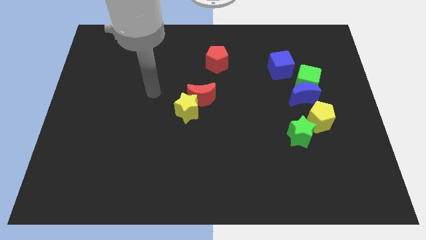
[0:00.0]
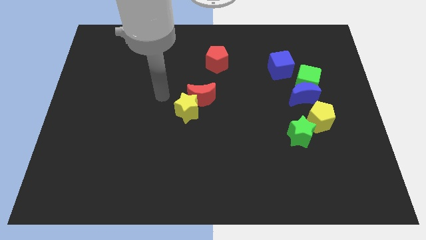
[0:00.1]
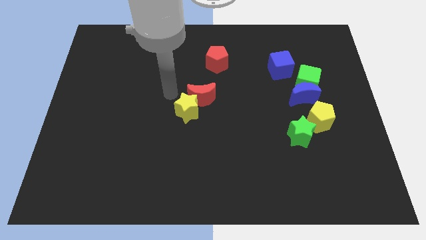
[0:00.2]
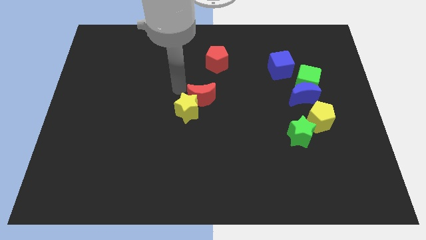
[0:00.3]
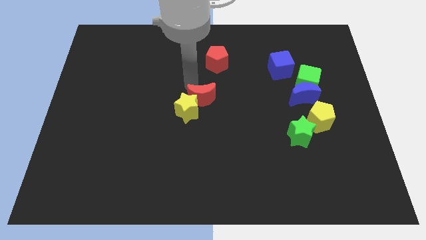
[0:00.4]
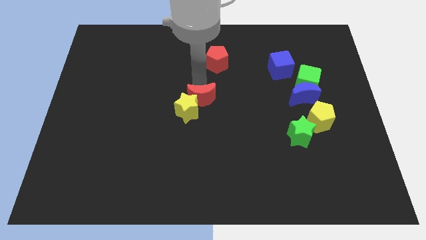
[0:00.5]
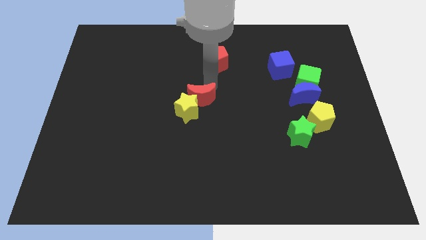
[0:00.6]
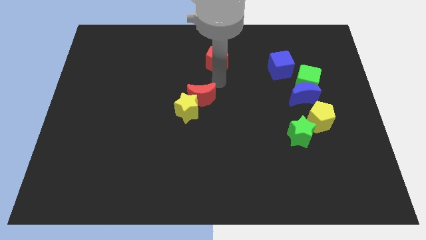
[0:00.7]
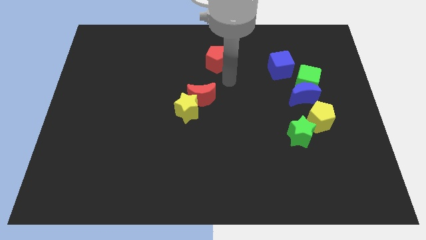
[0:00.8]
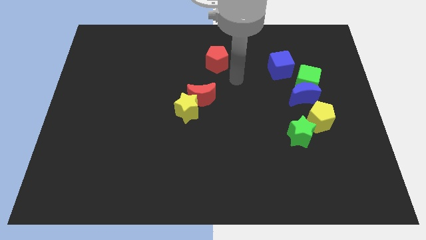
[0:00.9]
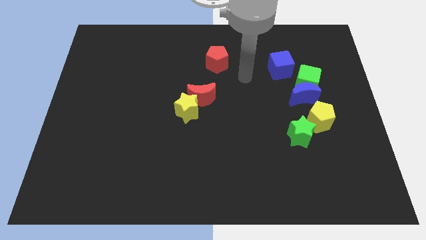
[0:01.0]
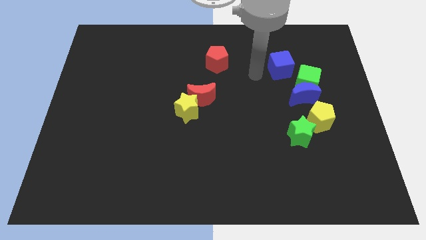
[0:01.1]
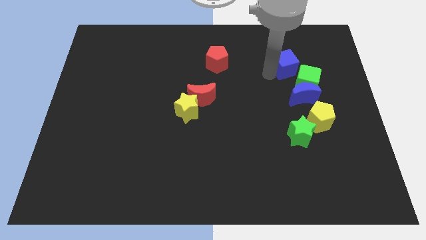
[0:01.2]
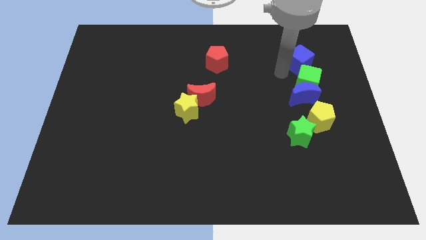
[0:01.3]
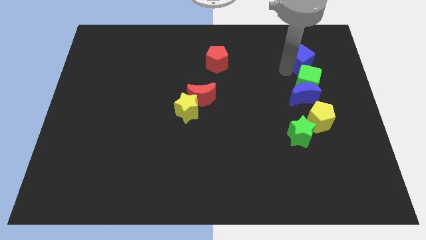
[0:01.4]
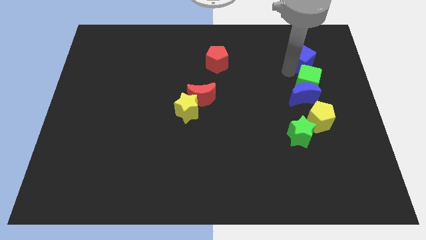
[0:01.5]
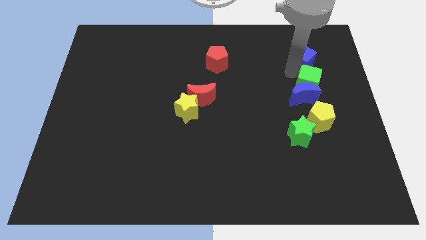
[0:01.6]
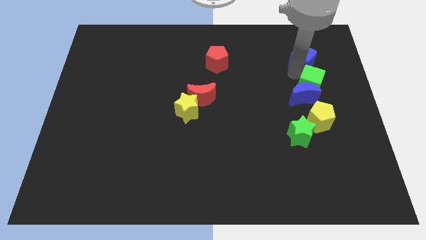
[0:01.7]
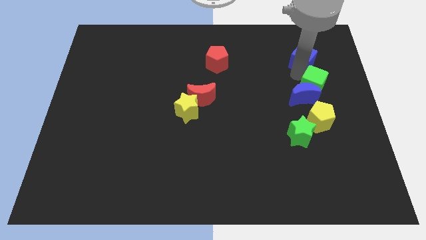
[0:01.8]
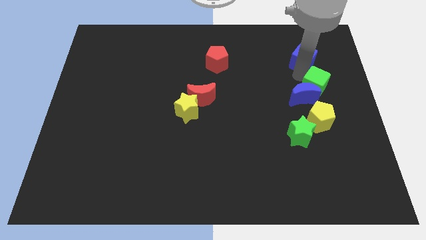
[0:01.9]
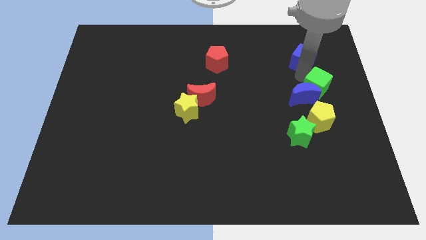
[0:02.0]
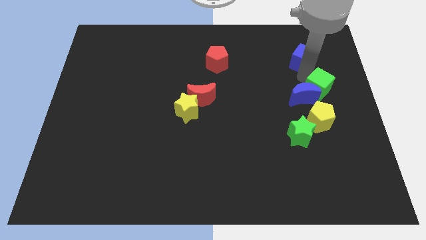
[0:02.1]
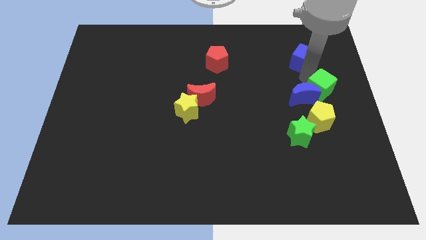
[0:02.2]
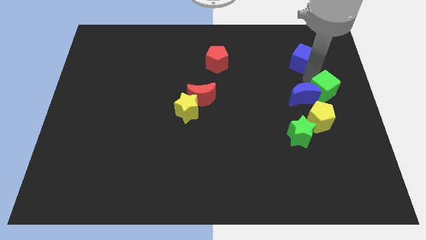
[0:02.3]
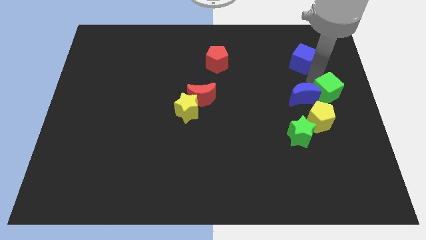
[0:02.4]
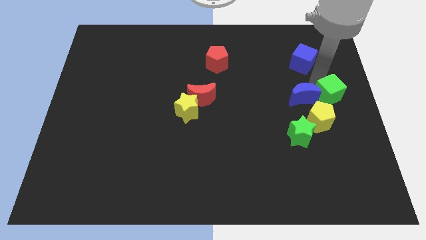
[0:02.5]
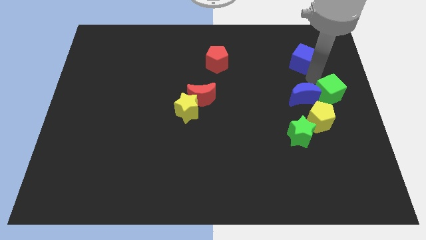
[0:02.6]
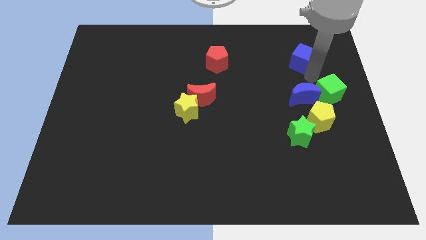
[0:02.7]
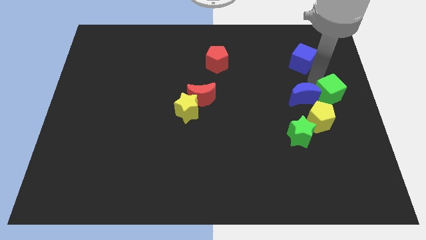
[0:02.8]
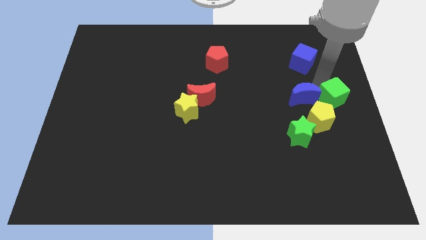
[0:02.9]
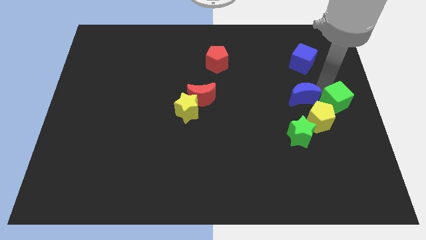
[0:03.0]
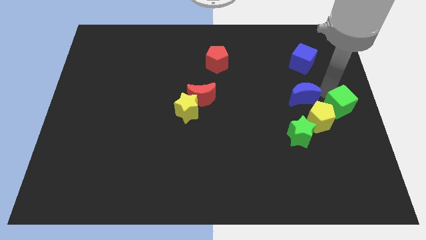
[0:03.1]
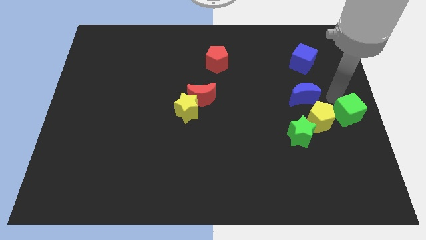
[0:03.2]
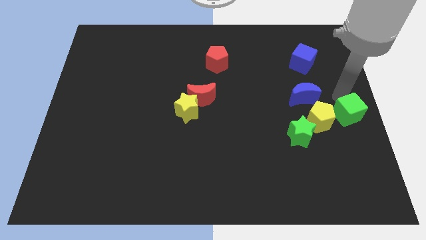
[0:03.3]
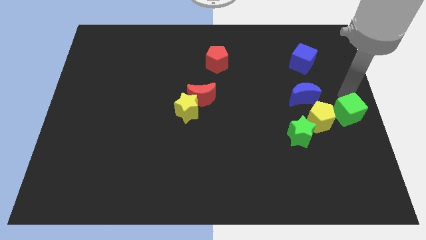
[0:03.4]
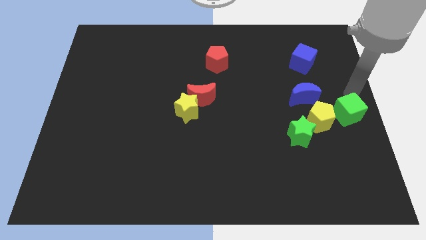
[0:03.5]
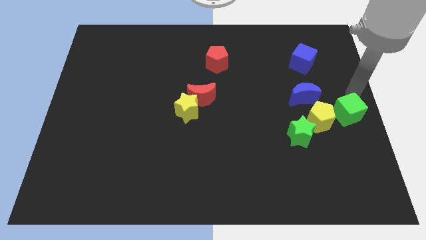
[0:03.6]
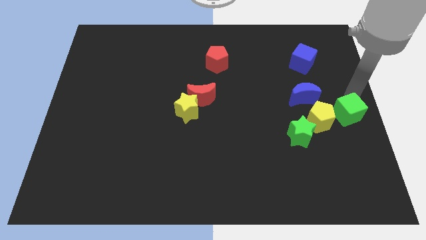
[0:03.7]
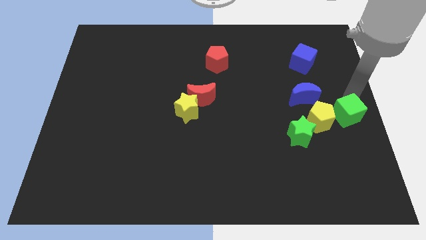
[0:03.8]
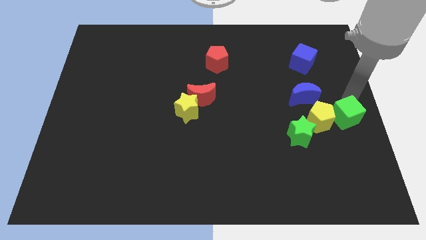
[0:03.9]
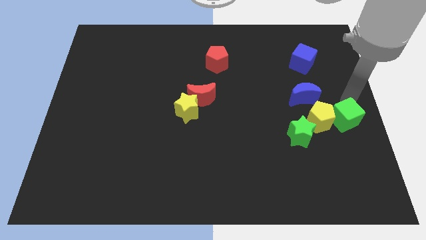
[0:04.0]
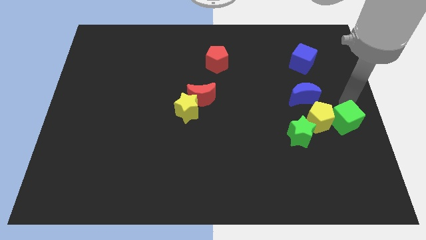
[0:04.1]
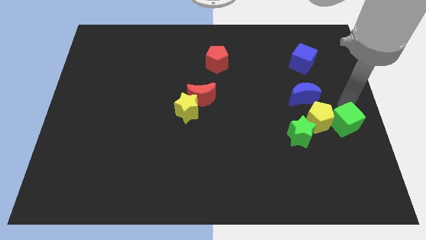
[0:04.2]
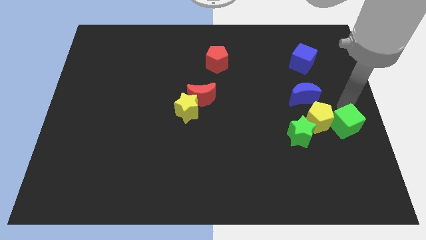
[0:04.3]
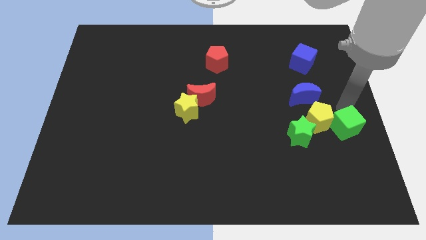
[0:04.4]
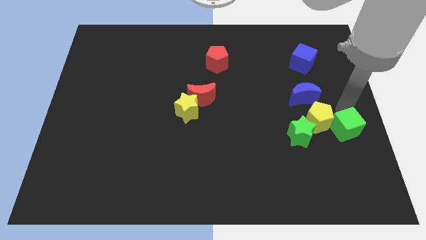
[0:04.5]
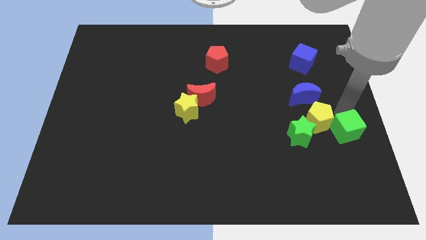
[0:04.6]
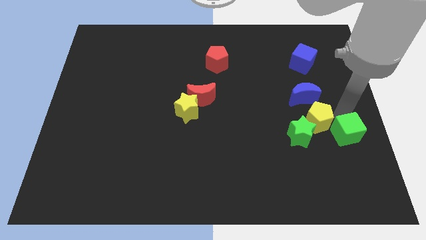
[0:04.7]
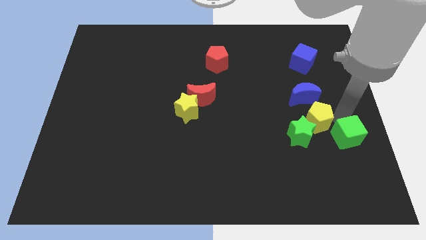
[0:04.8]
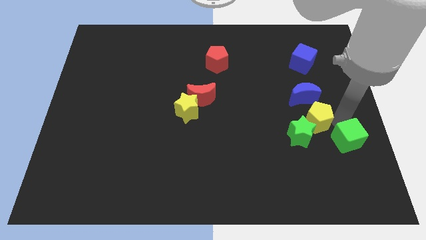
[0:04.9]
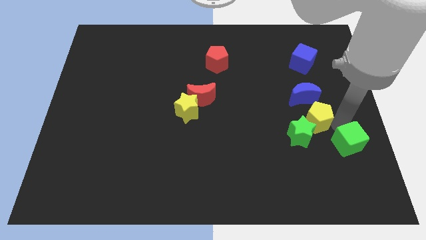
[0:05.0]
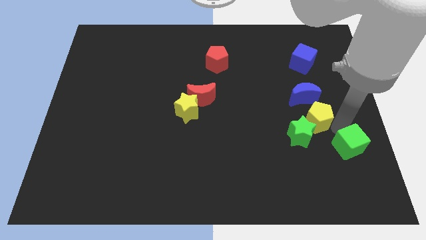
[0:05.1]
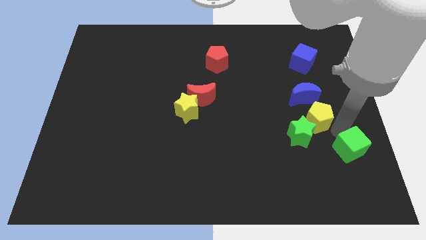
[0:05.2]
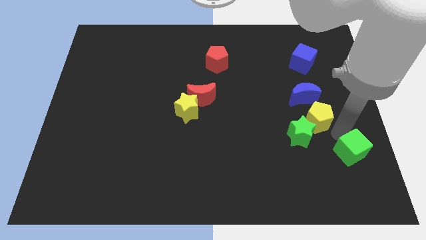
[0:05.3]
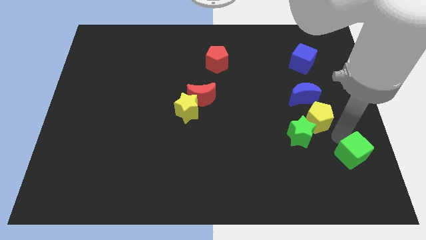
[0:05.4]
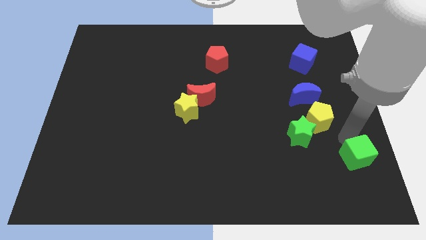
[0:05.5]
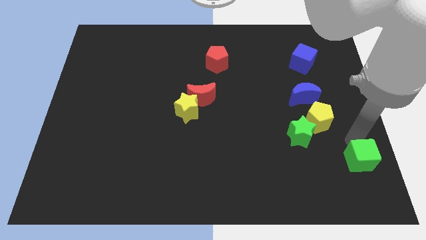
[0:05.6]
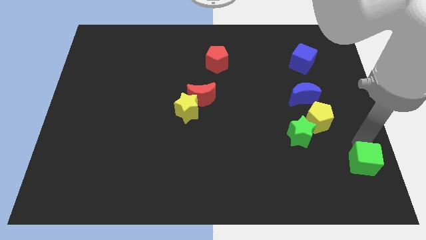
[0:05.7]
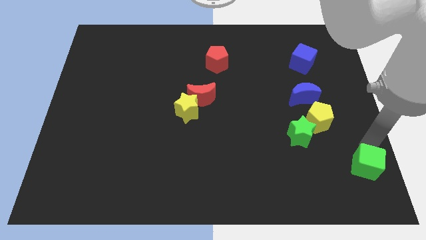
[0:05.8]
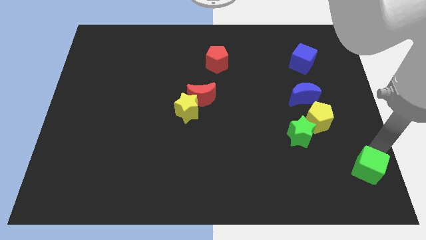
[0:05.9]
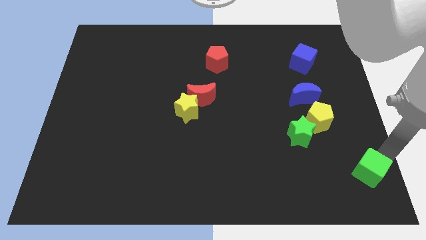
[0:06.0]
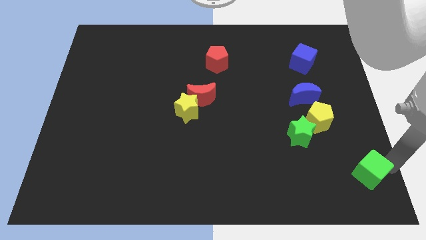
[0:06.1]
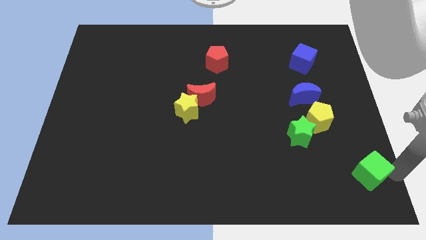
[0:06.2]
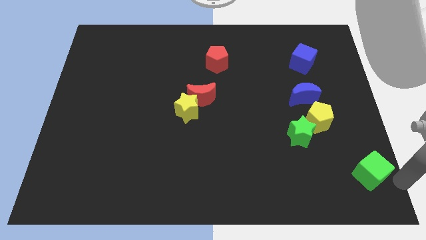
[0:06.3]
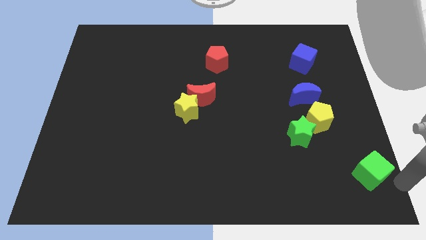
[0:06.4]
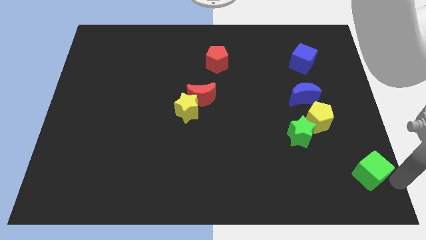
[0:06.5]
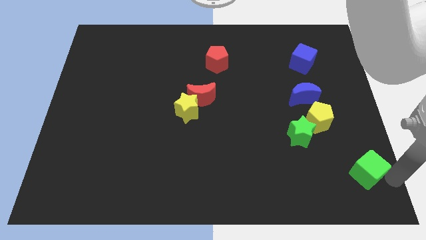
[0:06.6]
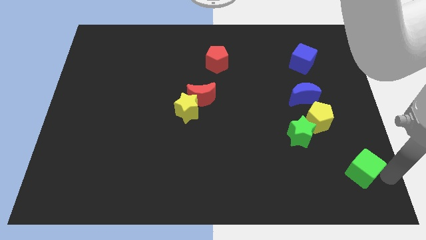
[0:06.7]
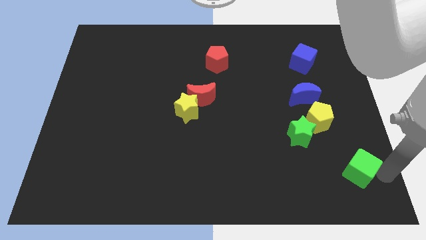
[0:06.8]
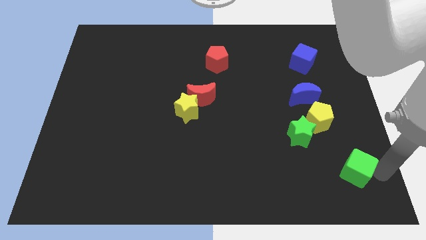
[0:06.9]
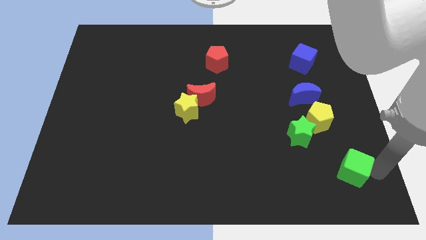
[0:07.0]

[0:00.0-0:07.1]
slide the green cube to the bottom side of the yellow pentagon
